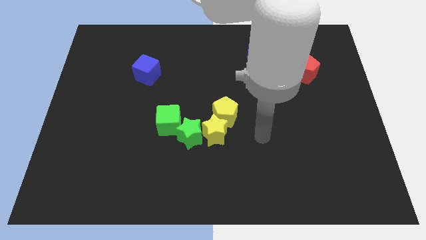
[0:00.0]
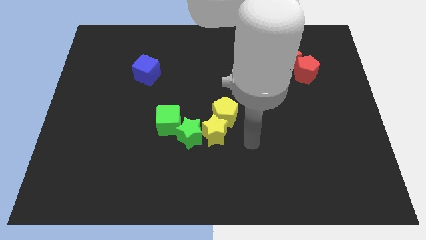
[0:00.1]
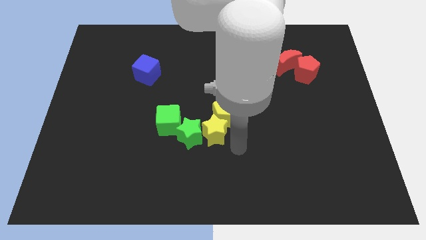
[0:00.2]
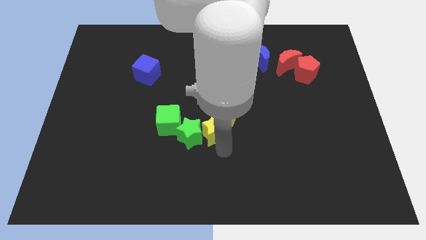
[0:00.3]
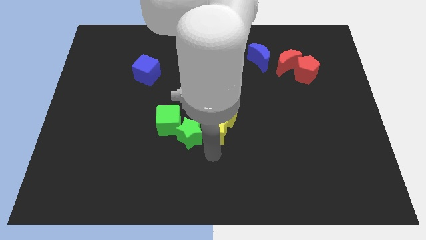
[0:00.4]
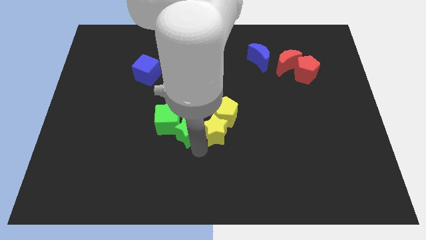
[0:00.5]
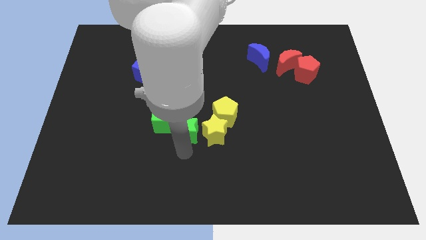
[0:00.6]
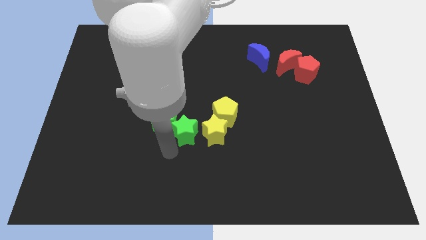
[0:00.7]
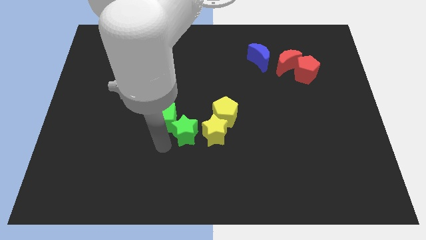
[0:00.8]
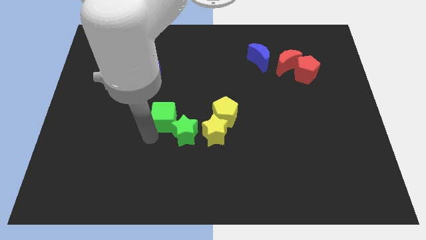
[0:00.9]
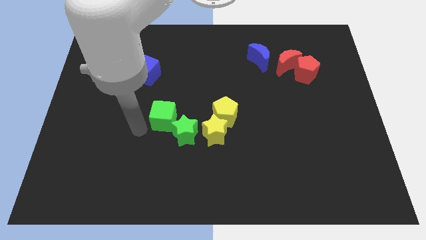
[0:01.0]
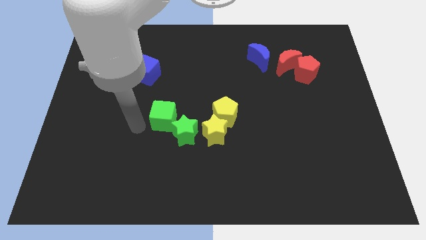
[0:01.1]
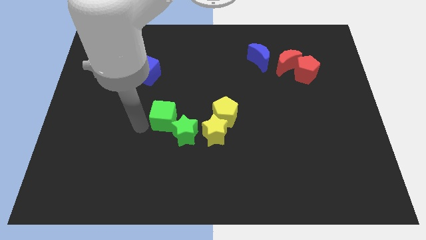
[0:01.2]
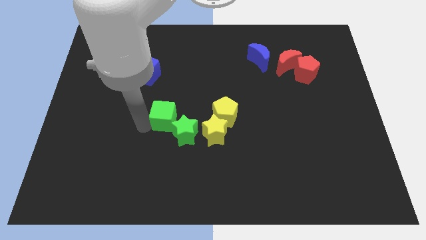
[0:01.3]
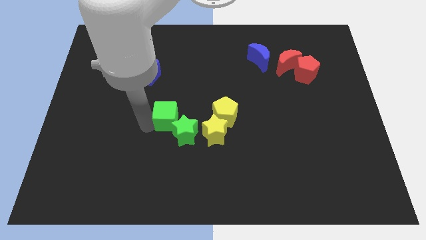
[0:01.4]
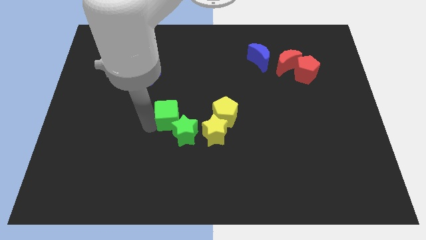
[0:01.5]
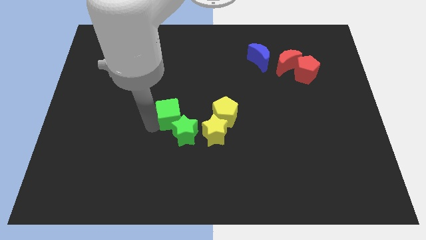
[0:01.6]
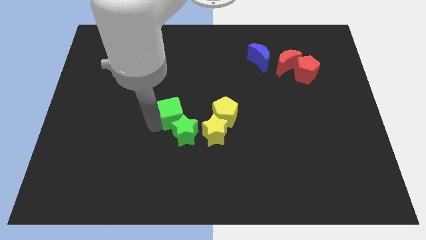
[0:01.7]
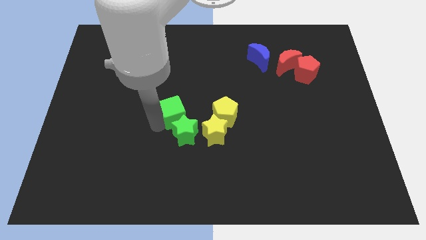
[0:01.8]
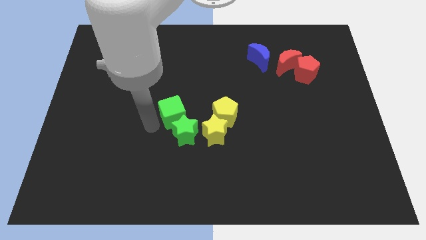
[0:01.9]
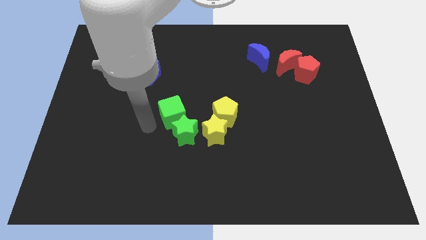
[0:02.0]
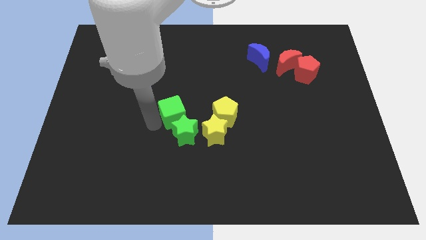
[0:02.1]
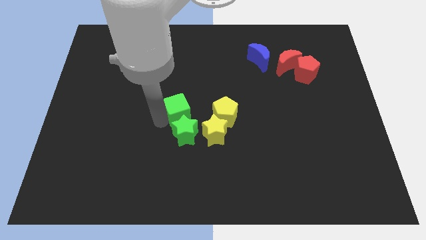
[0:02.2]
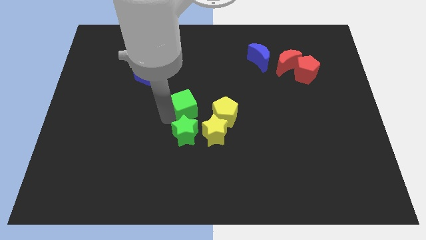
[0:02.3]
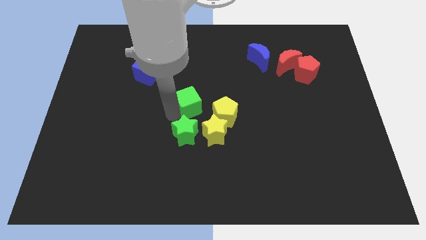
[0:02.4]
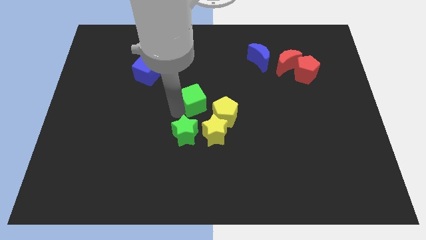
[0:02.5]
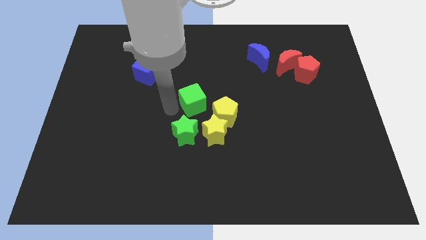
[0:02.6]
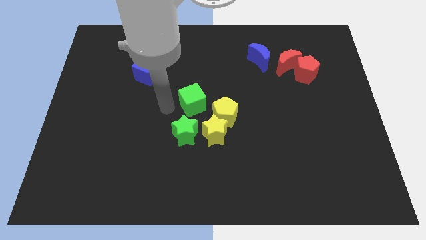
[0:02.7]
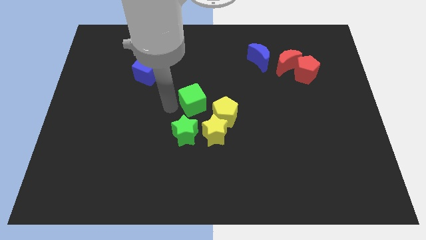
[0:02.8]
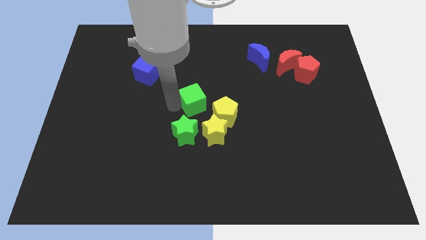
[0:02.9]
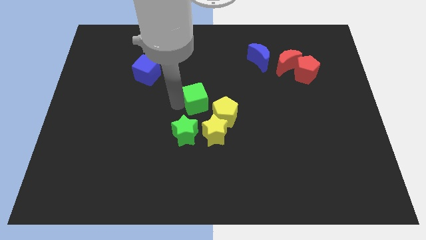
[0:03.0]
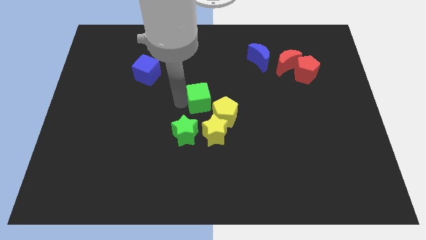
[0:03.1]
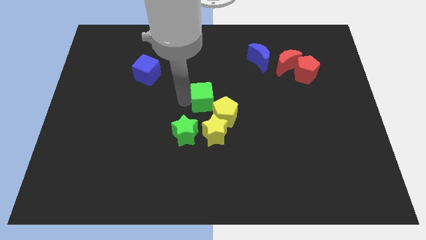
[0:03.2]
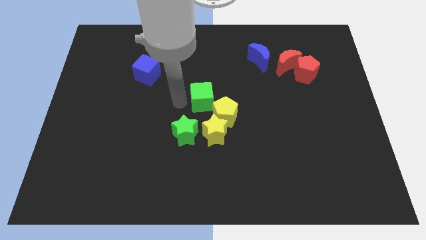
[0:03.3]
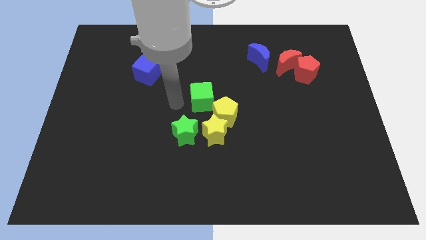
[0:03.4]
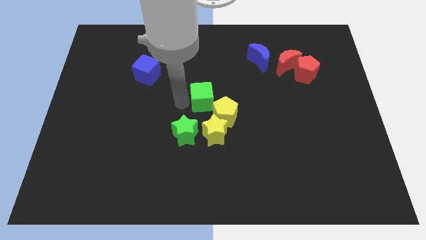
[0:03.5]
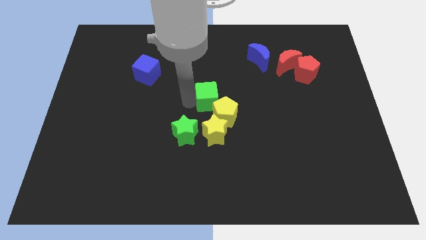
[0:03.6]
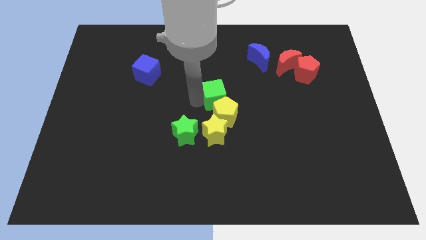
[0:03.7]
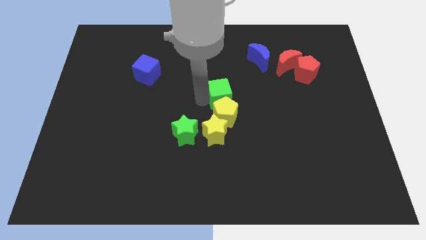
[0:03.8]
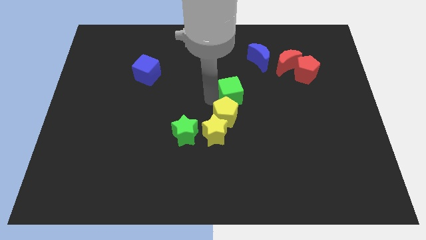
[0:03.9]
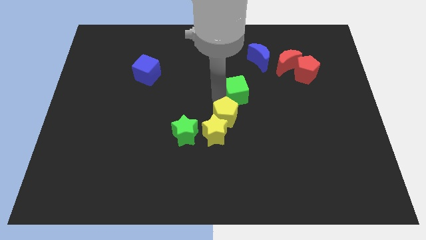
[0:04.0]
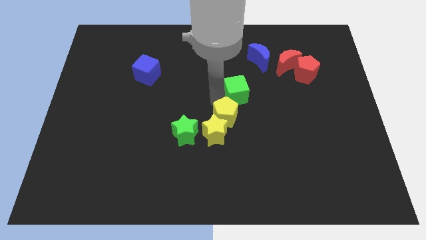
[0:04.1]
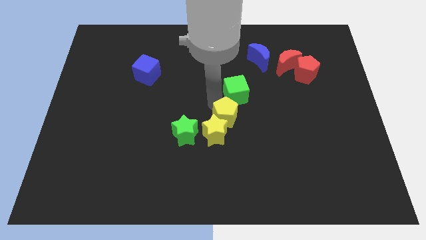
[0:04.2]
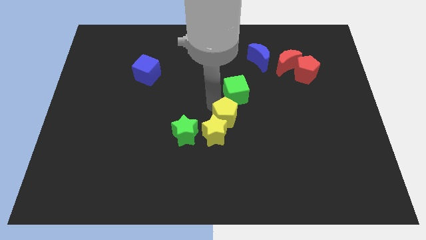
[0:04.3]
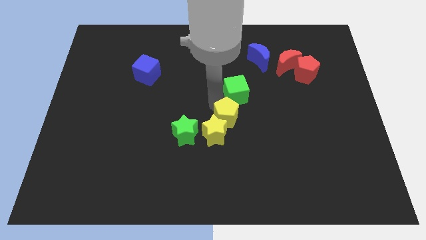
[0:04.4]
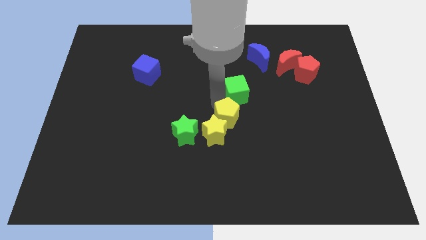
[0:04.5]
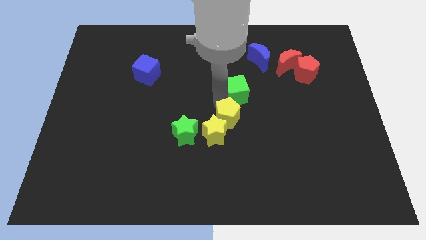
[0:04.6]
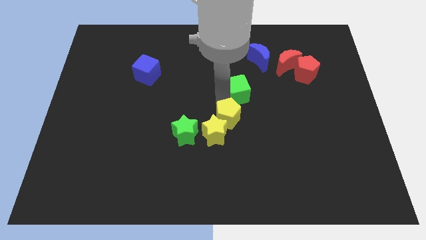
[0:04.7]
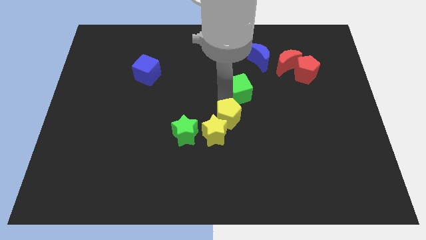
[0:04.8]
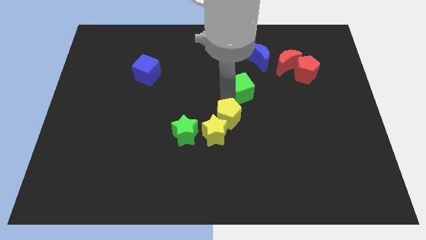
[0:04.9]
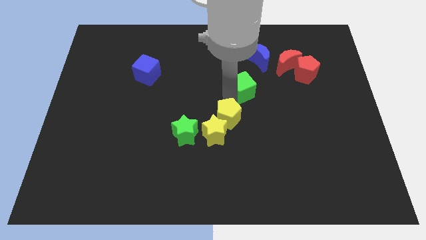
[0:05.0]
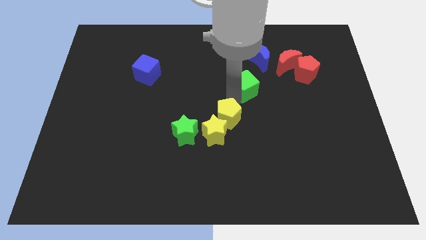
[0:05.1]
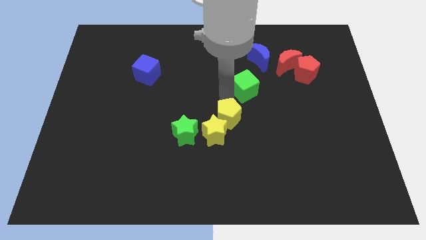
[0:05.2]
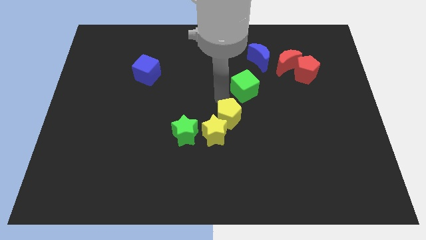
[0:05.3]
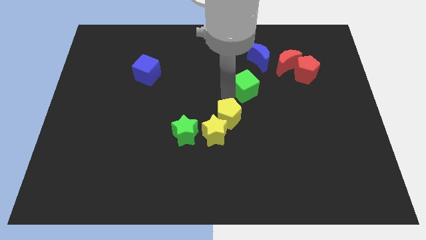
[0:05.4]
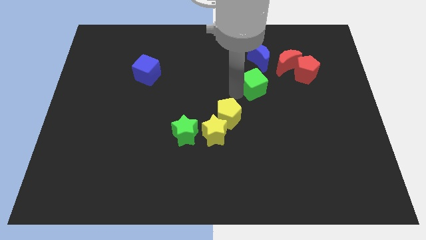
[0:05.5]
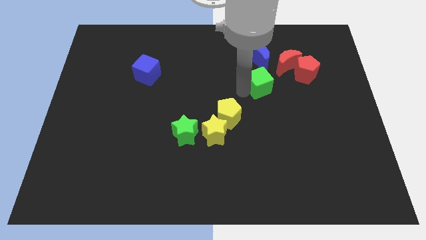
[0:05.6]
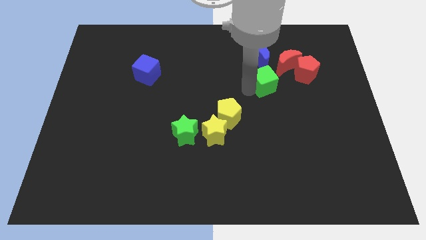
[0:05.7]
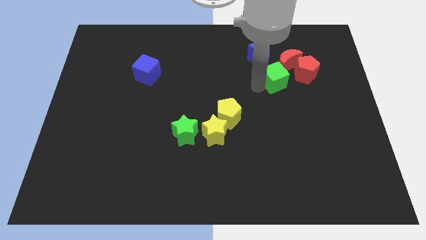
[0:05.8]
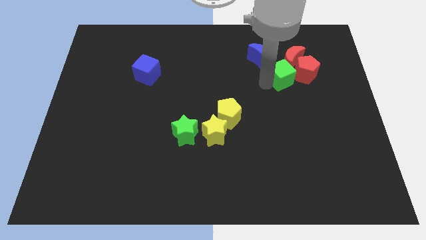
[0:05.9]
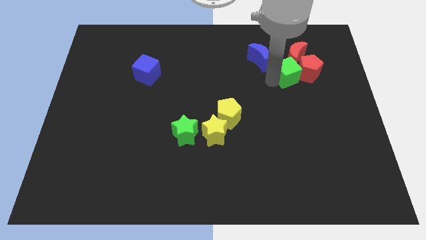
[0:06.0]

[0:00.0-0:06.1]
slide the green cube close to the red pentagon
